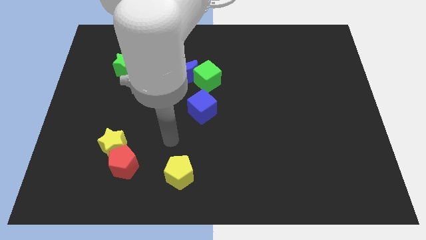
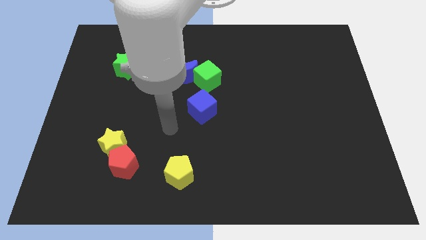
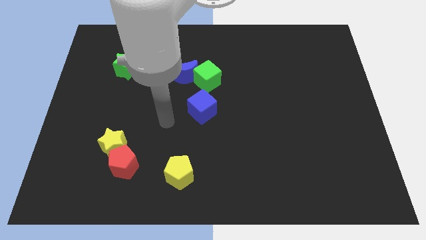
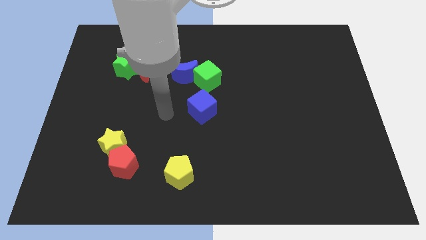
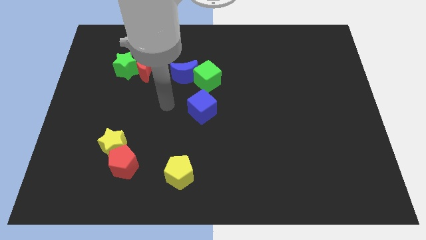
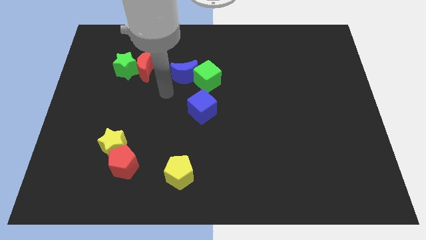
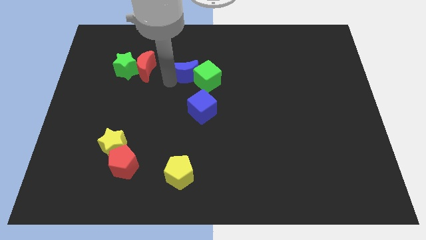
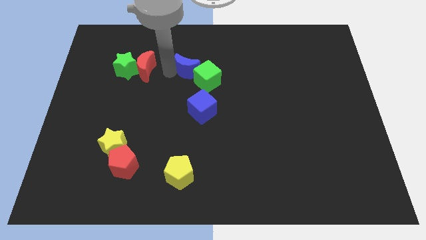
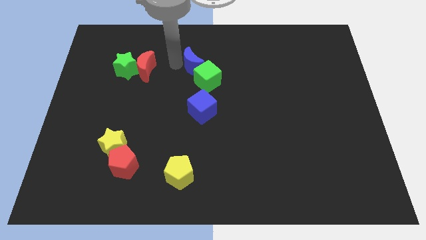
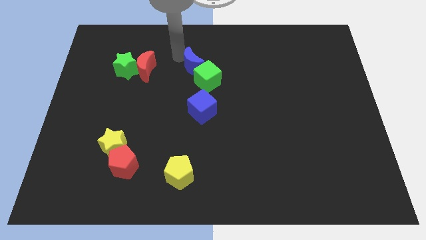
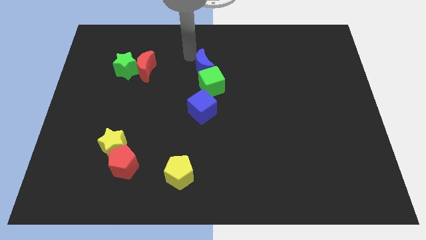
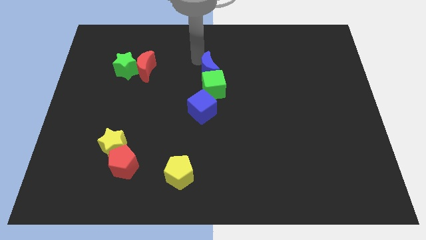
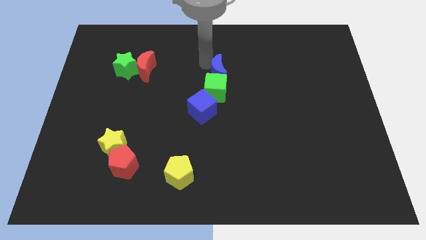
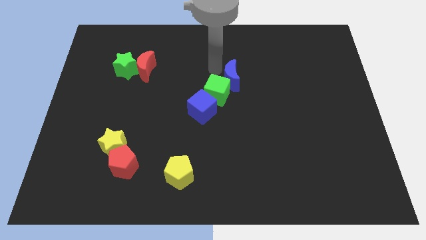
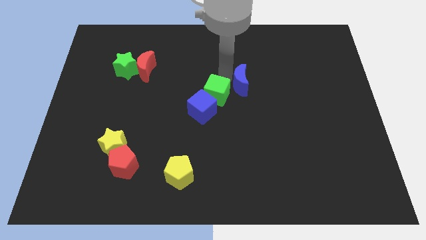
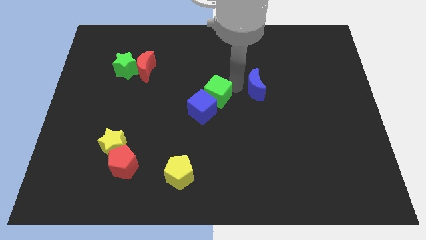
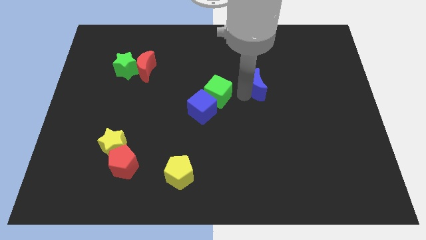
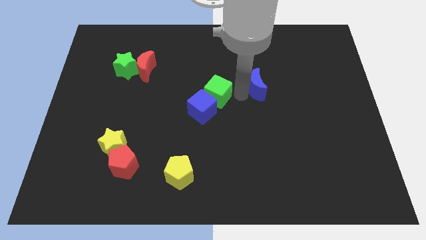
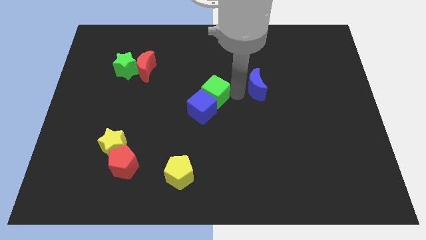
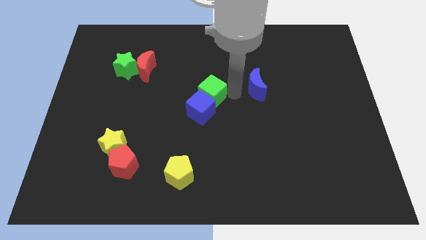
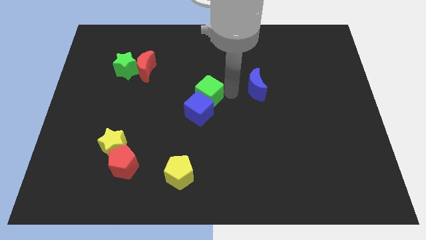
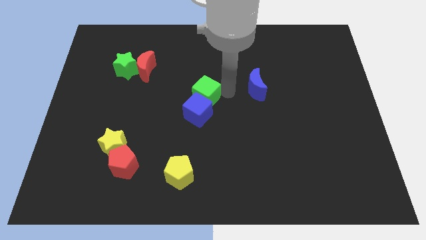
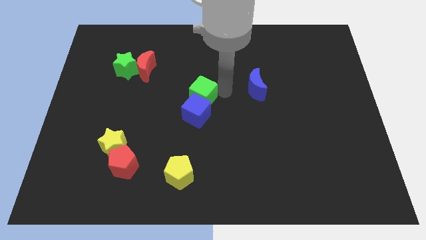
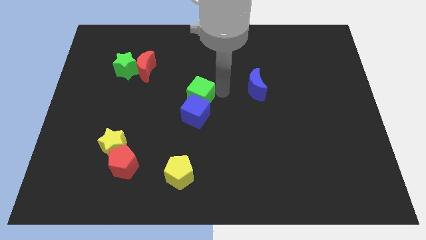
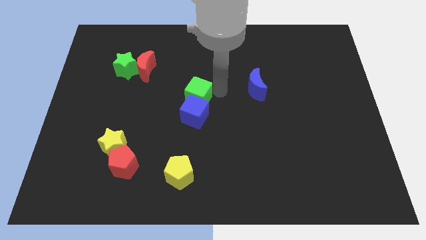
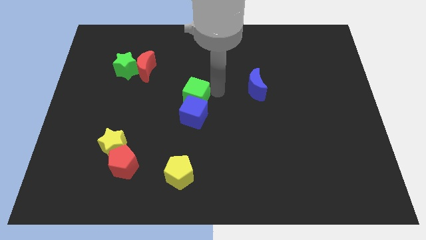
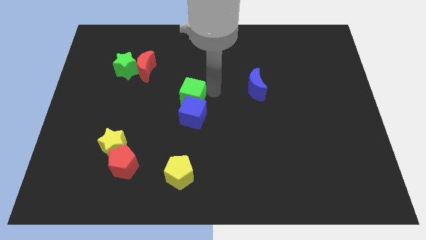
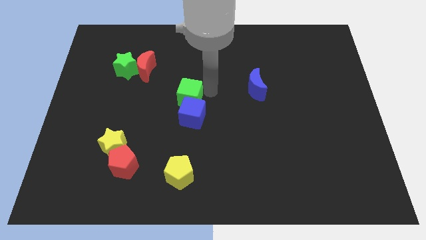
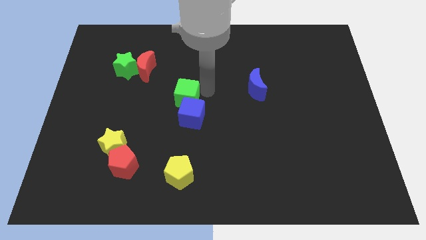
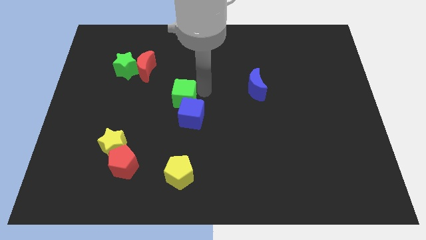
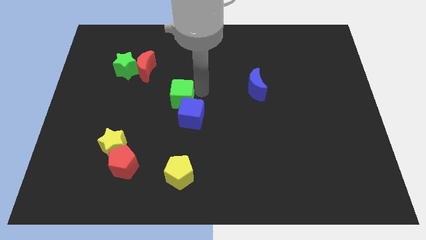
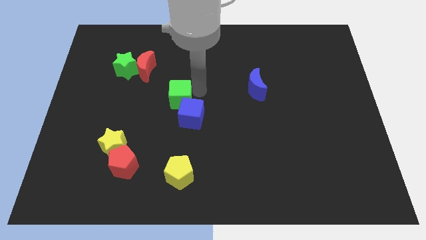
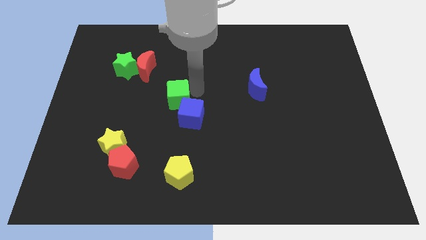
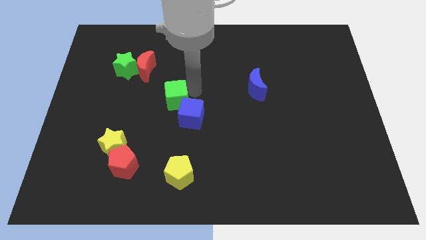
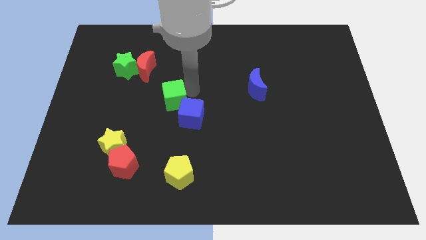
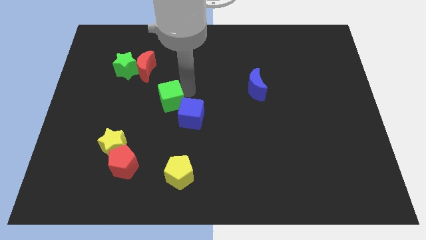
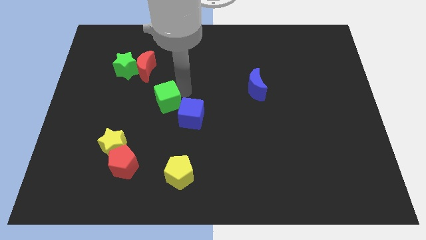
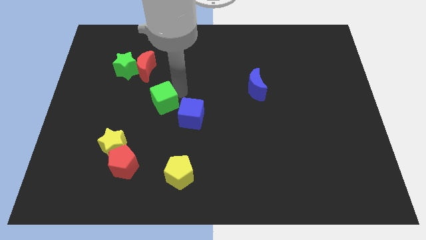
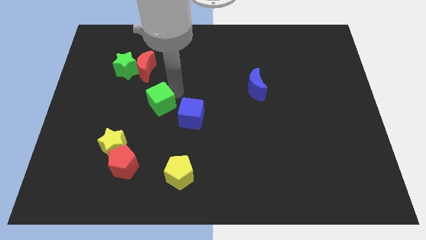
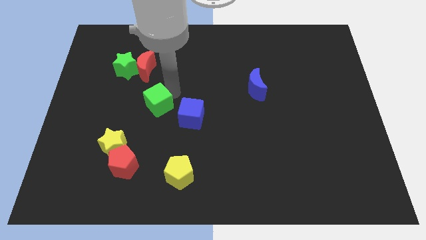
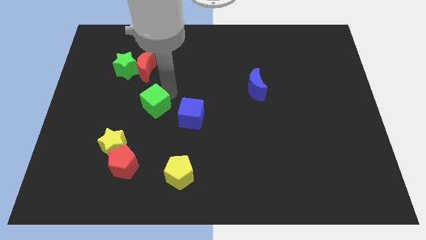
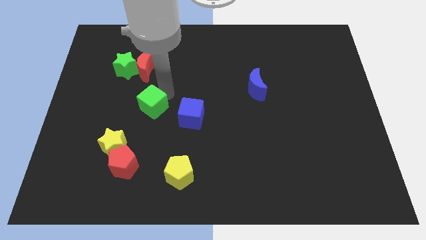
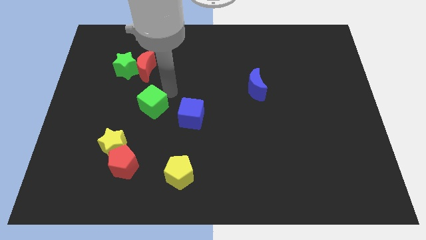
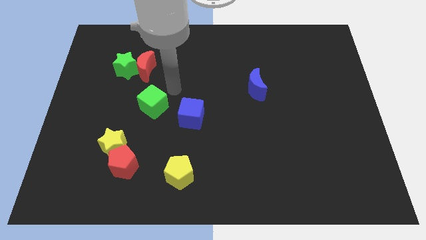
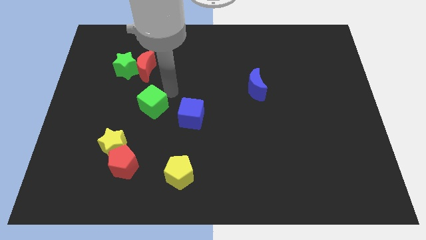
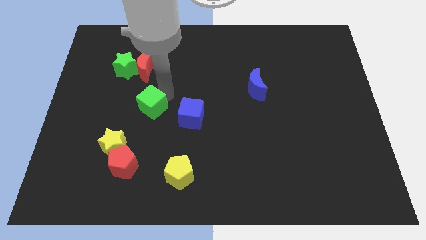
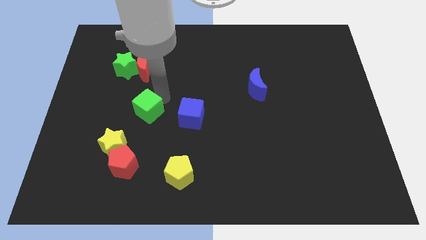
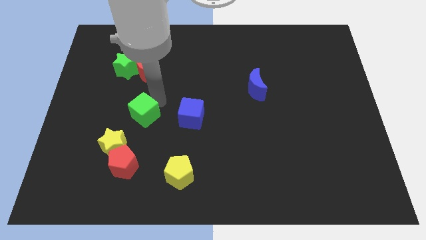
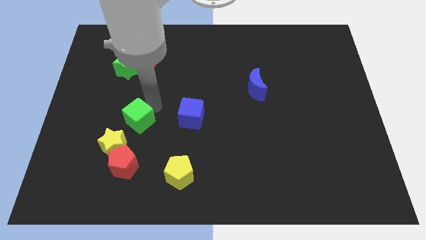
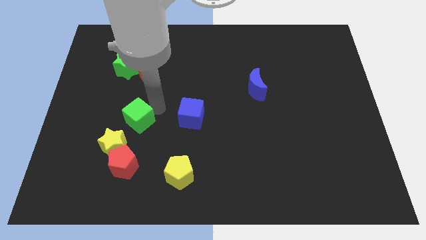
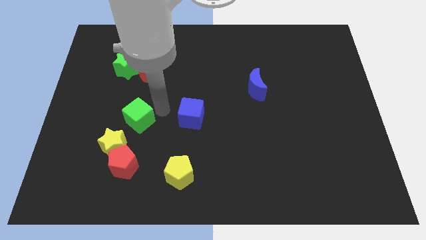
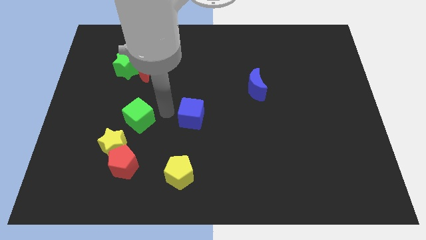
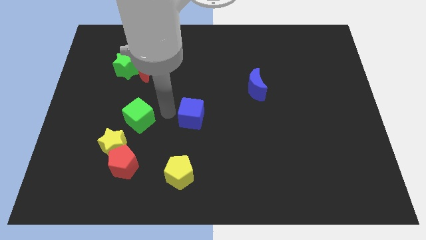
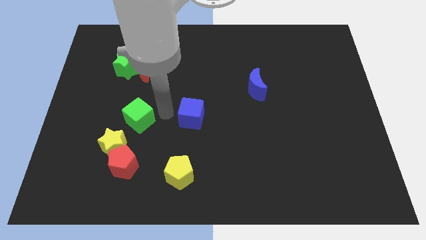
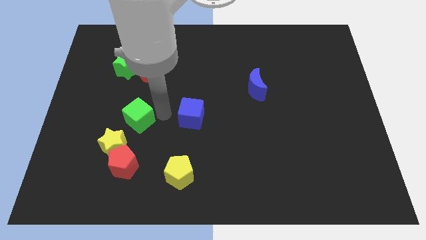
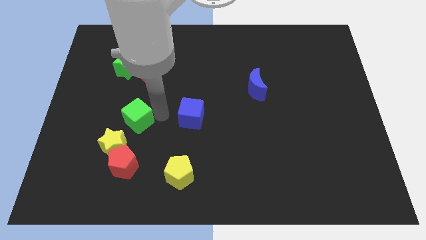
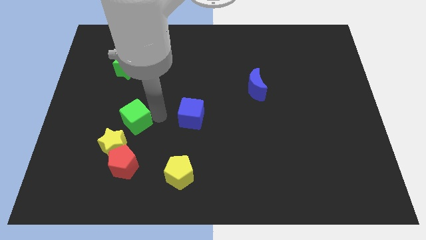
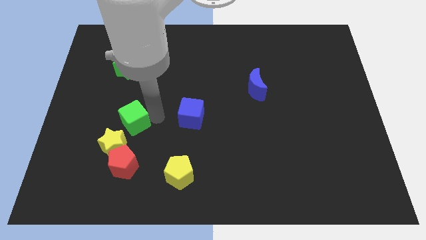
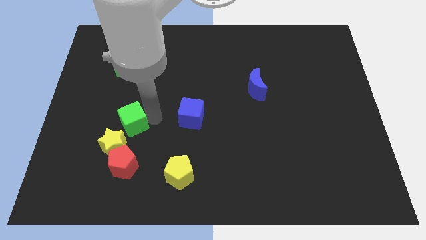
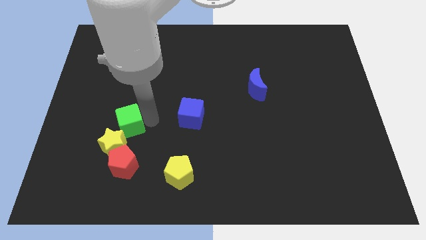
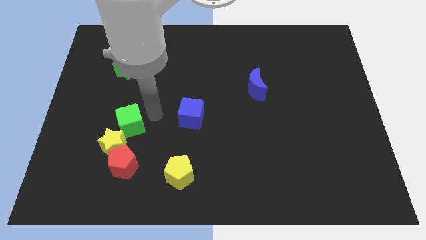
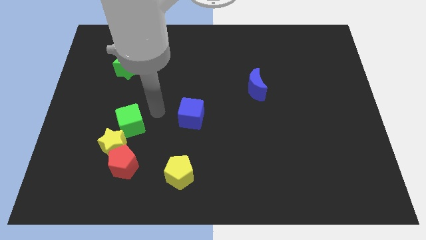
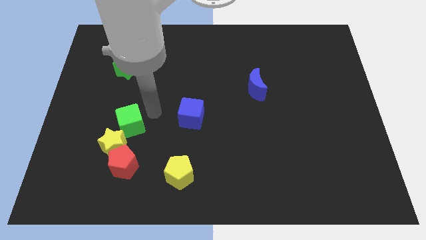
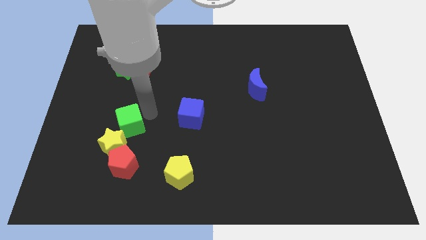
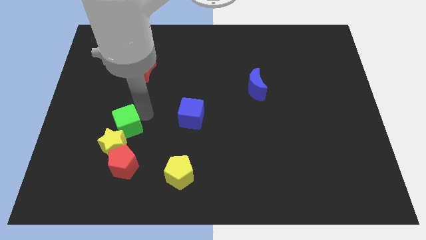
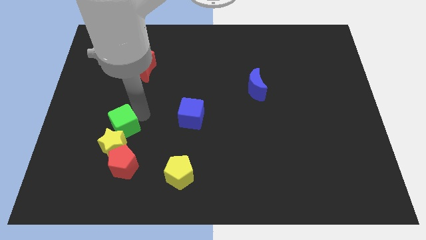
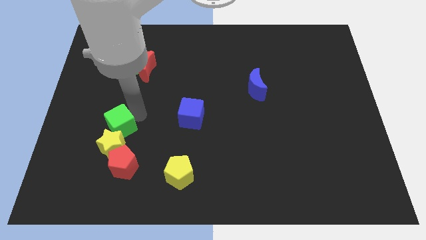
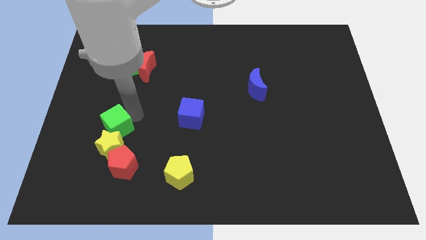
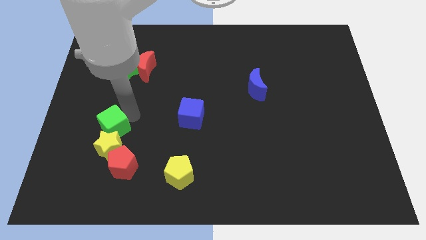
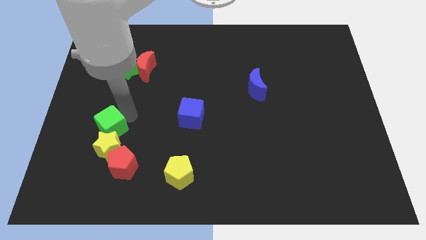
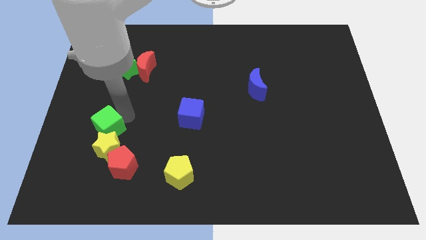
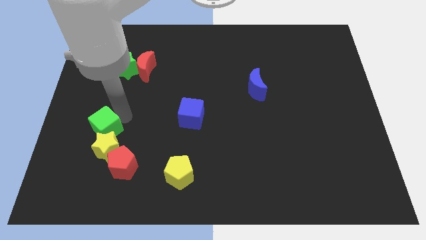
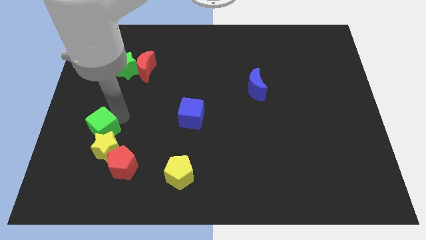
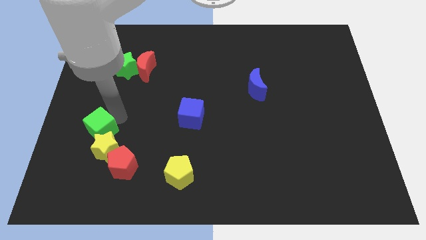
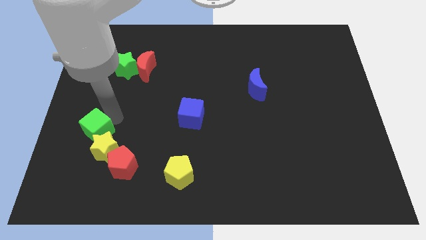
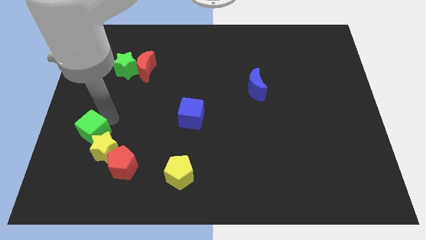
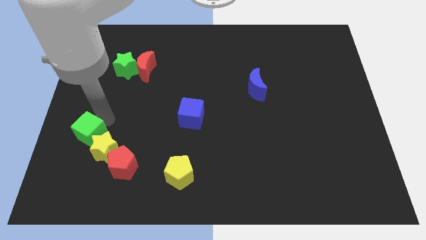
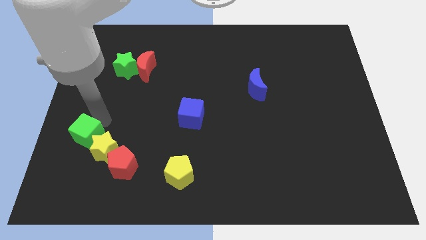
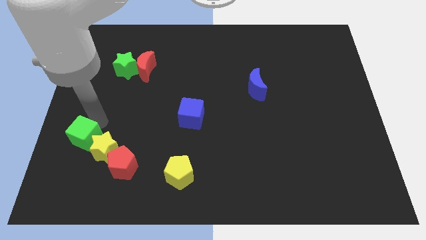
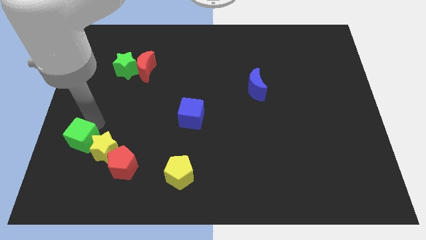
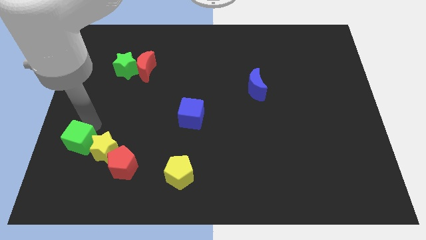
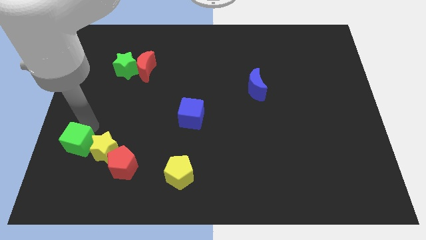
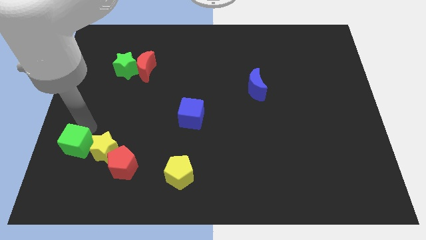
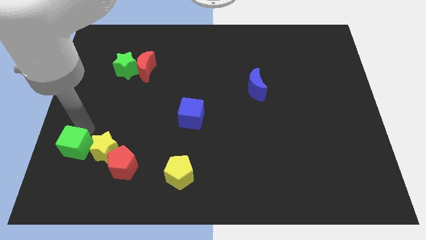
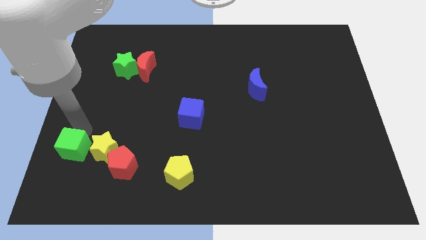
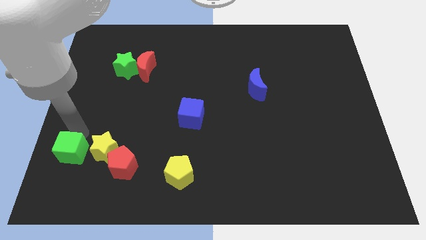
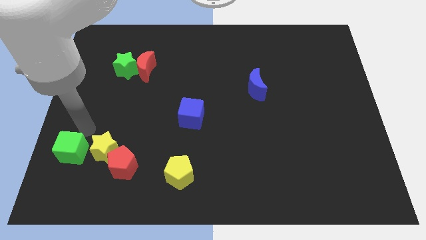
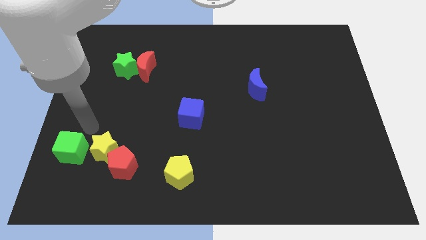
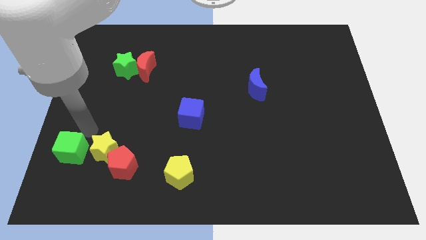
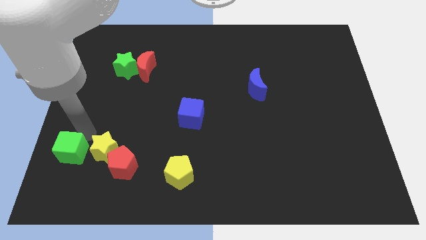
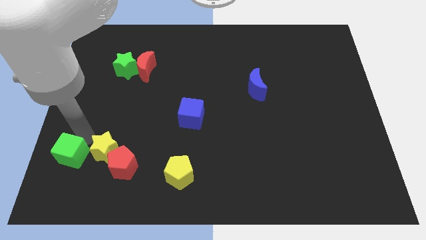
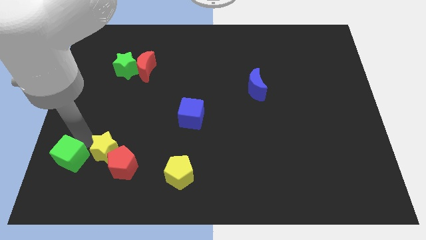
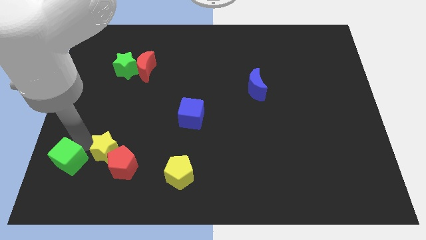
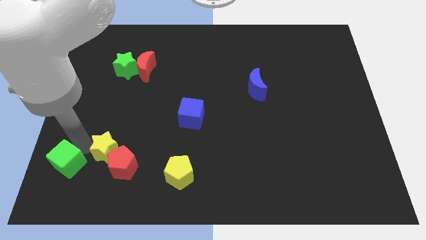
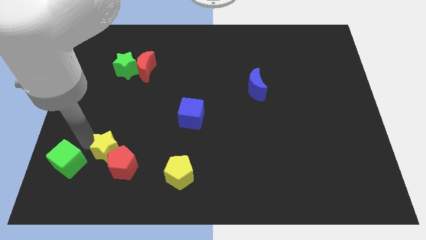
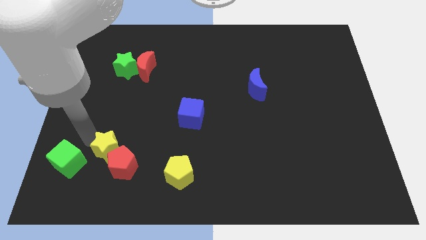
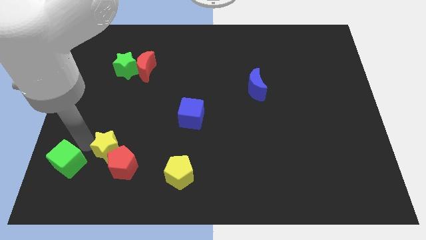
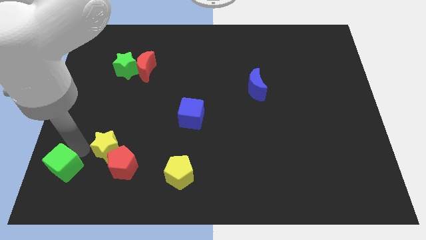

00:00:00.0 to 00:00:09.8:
move the green cube to the bottom left corner
